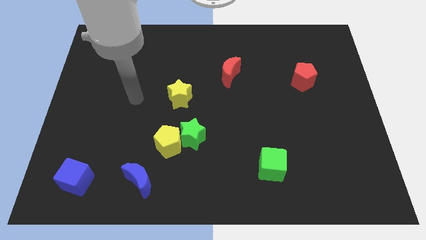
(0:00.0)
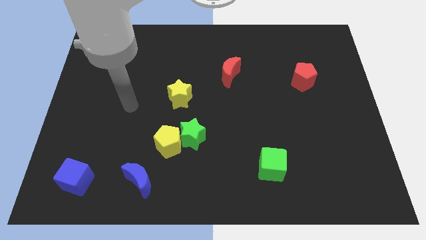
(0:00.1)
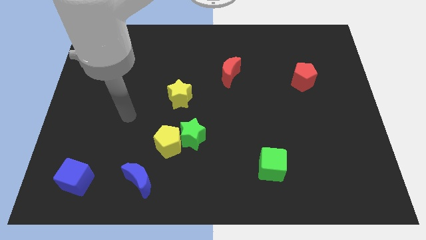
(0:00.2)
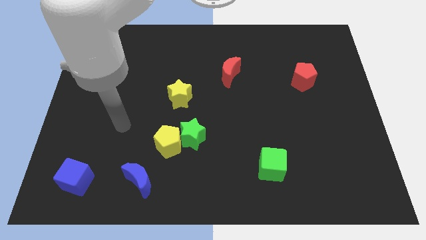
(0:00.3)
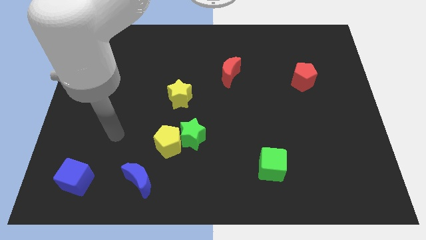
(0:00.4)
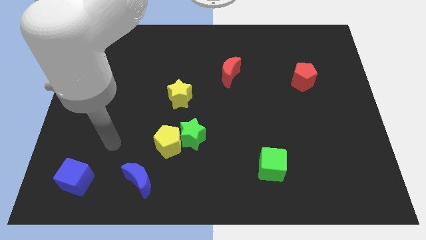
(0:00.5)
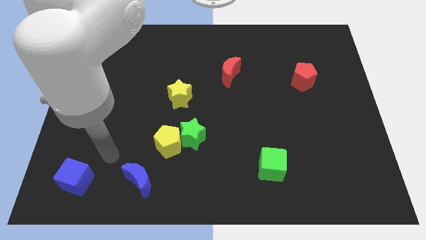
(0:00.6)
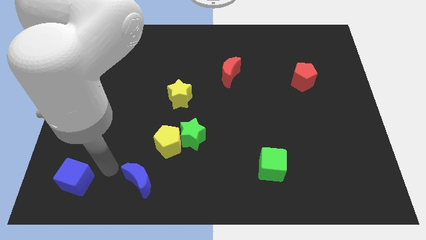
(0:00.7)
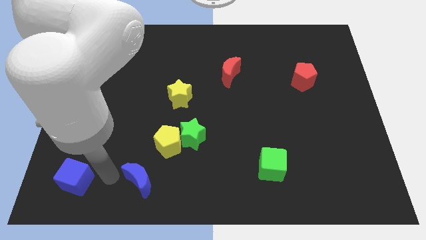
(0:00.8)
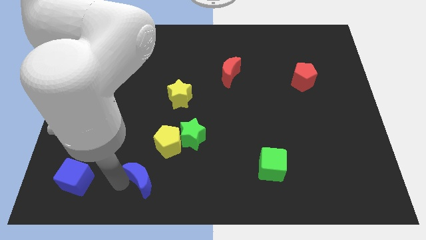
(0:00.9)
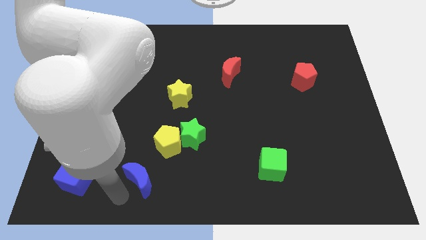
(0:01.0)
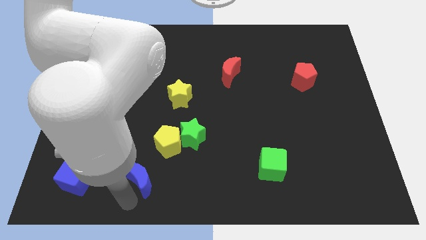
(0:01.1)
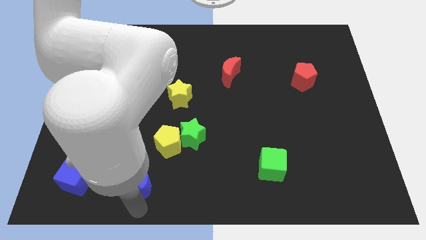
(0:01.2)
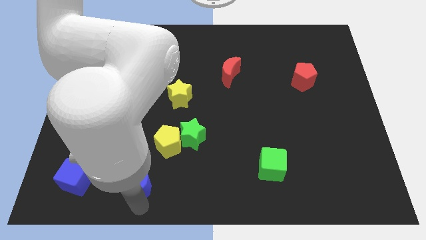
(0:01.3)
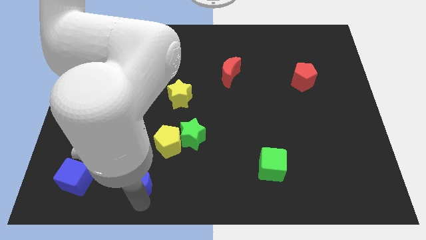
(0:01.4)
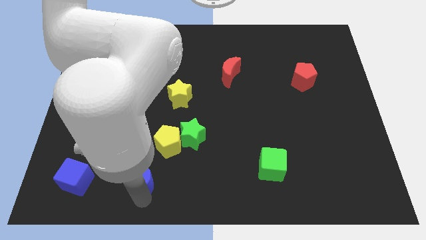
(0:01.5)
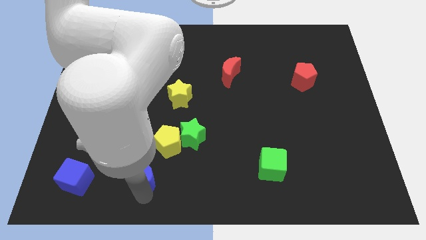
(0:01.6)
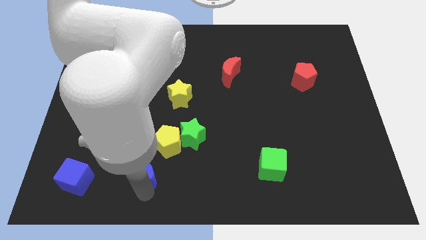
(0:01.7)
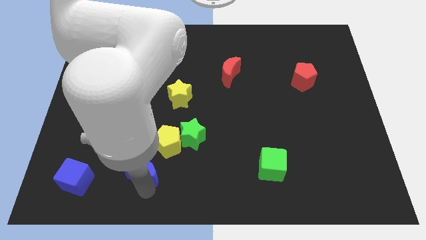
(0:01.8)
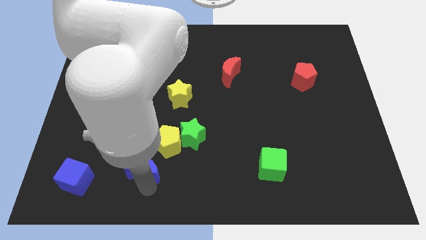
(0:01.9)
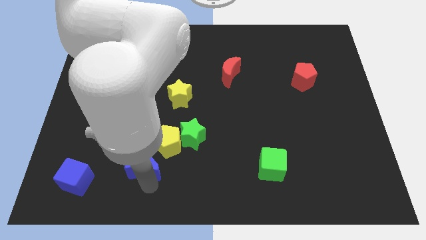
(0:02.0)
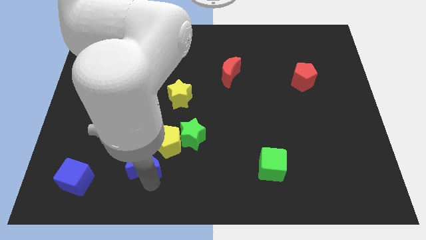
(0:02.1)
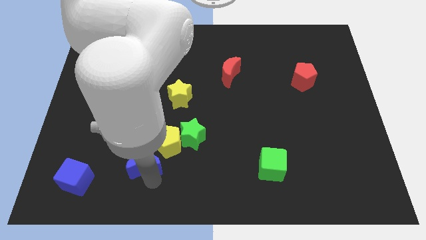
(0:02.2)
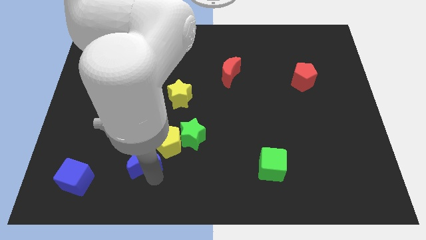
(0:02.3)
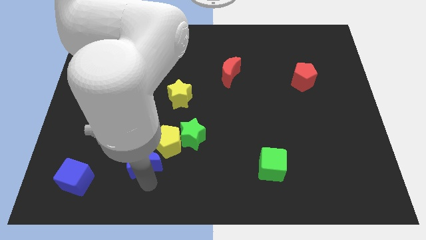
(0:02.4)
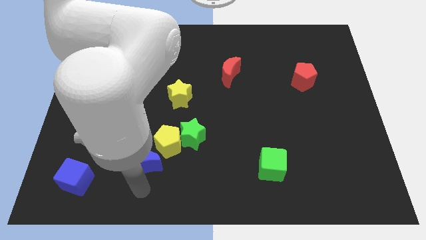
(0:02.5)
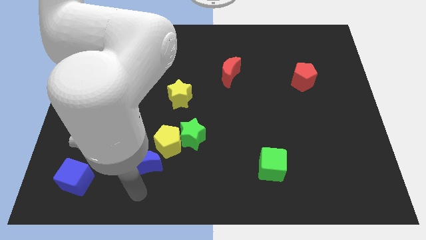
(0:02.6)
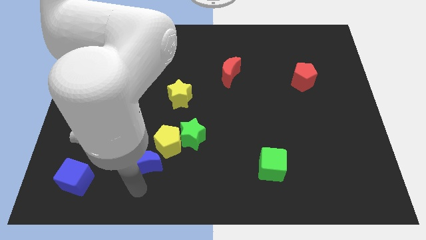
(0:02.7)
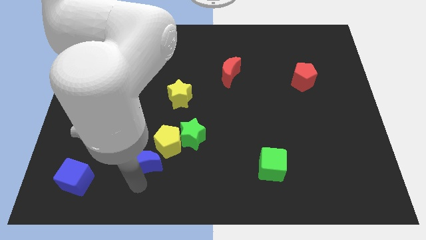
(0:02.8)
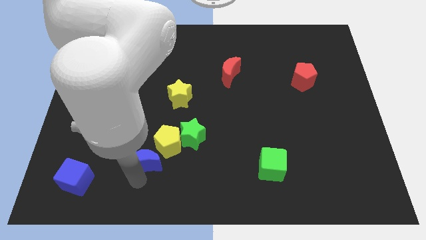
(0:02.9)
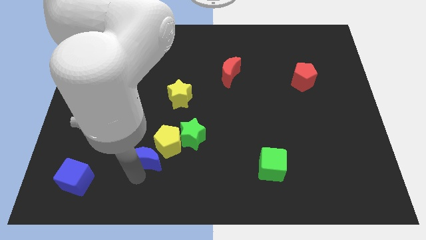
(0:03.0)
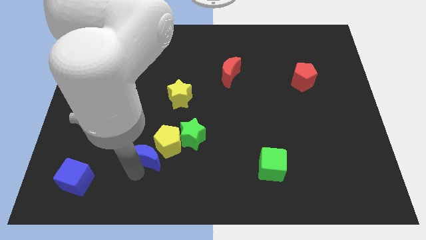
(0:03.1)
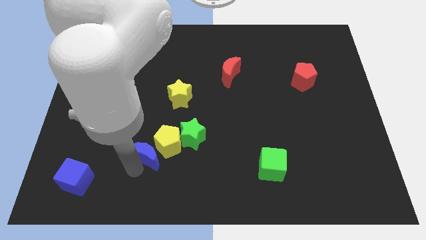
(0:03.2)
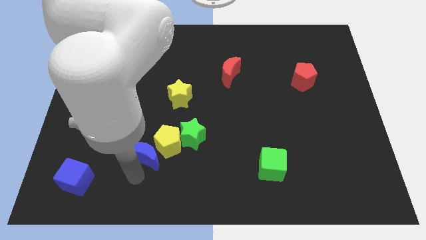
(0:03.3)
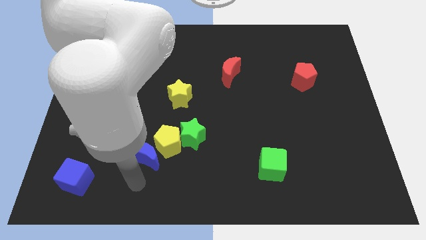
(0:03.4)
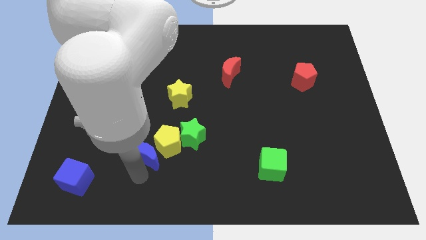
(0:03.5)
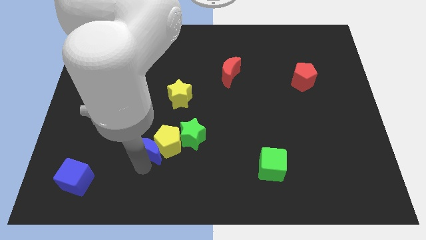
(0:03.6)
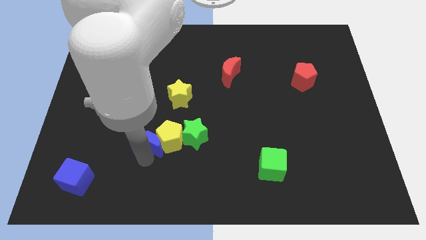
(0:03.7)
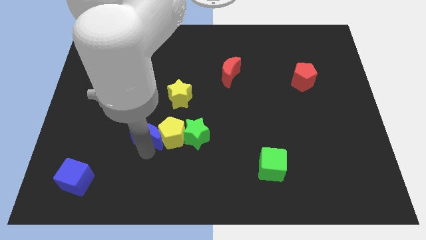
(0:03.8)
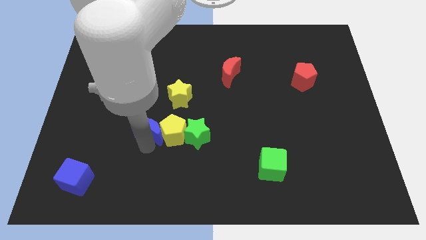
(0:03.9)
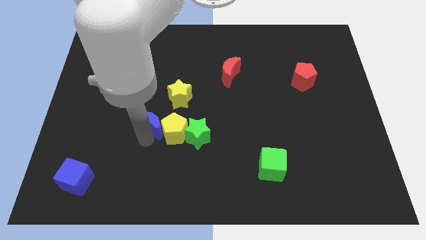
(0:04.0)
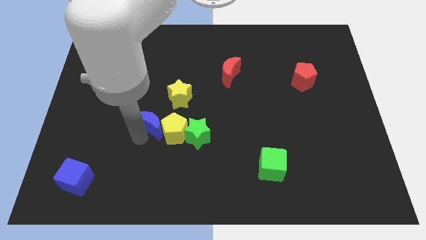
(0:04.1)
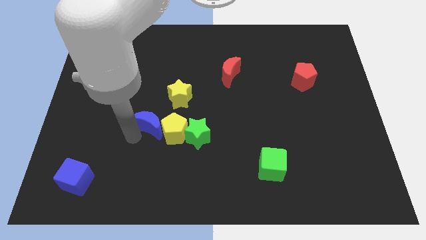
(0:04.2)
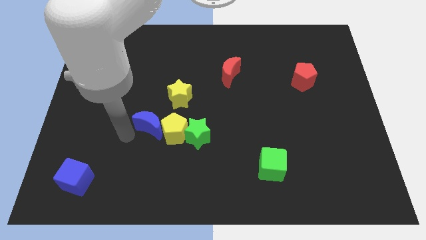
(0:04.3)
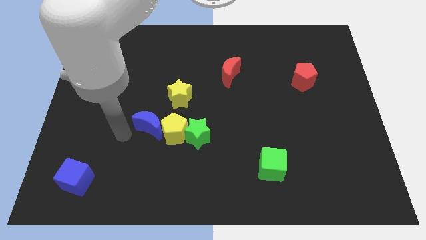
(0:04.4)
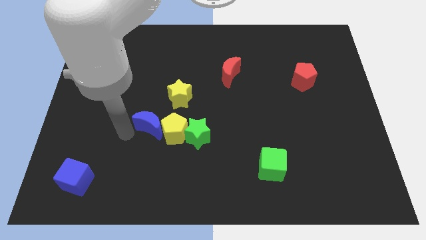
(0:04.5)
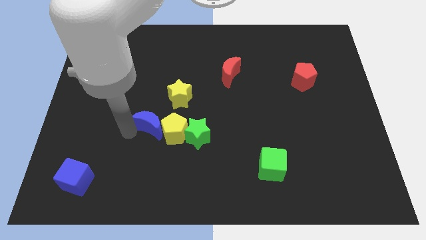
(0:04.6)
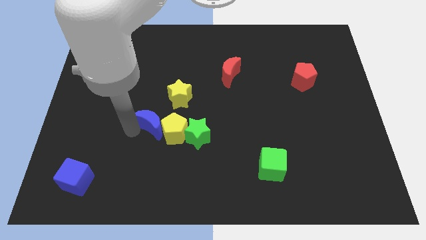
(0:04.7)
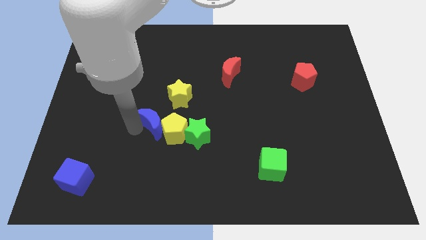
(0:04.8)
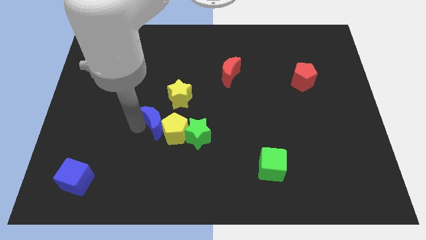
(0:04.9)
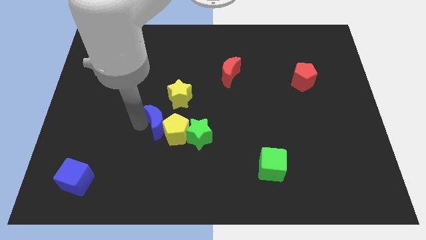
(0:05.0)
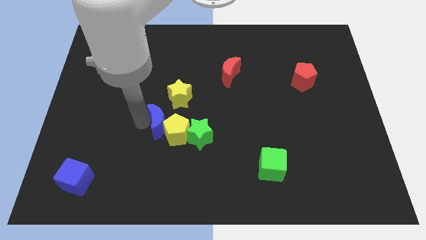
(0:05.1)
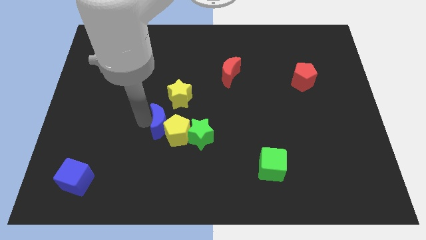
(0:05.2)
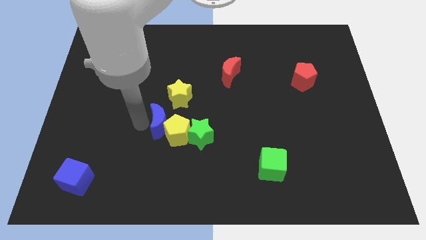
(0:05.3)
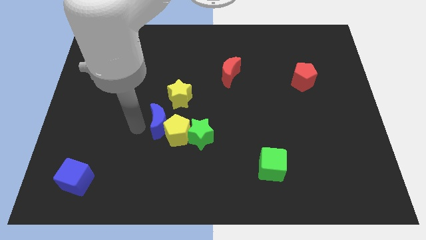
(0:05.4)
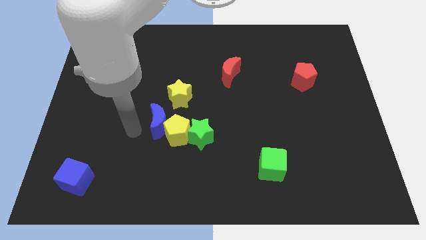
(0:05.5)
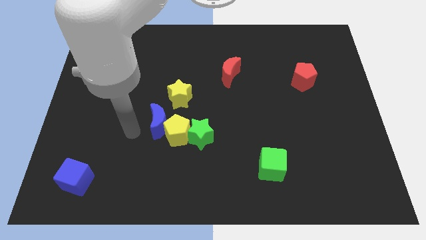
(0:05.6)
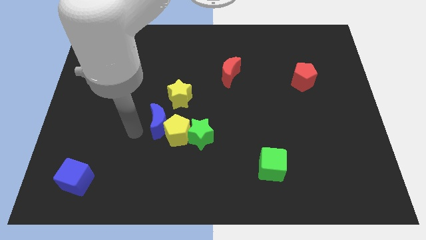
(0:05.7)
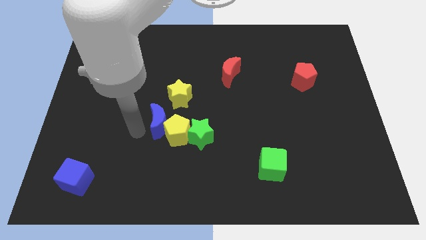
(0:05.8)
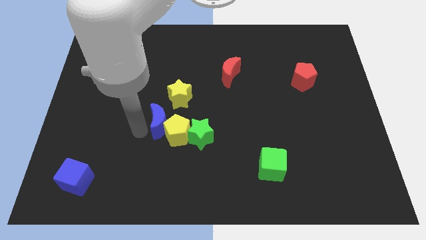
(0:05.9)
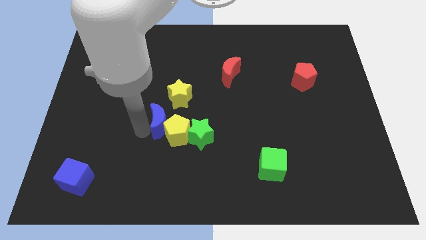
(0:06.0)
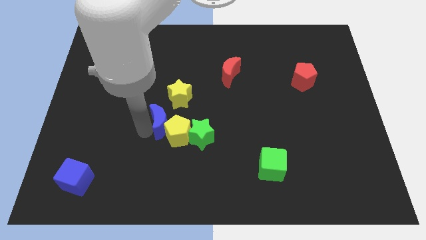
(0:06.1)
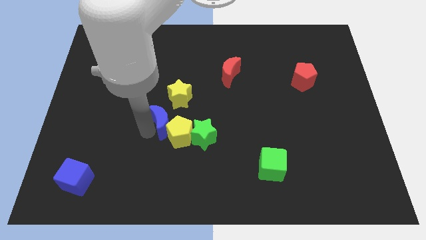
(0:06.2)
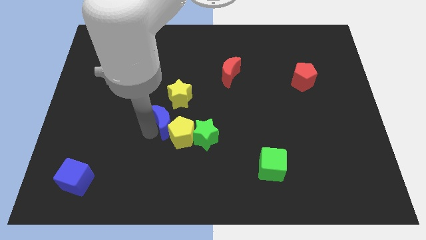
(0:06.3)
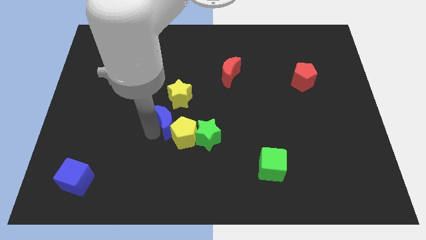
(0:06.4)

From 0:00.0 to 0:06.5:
push the blue moon to the center
